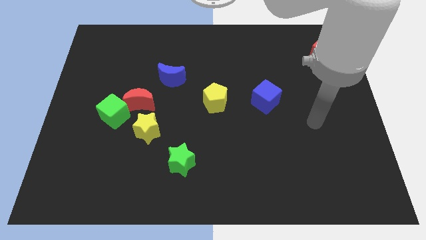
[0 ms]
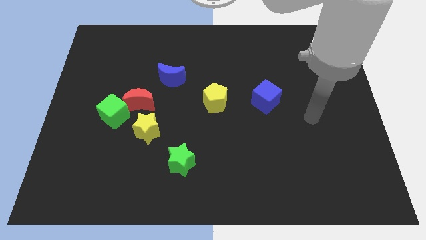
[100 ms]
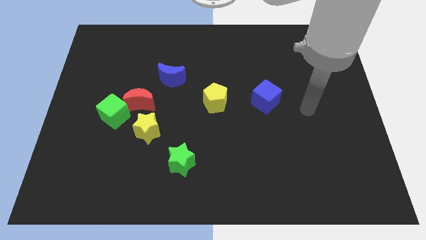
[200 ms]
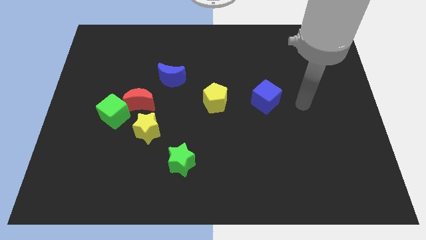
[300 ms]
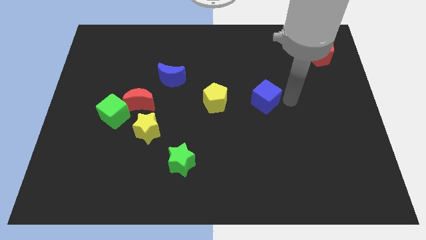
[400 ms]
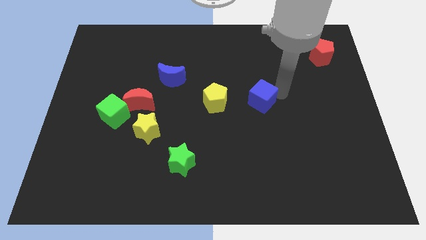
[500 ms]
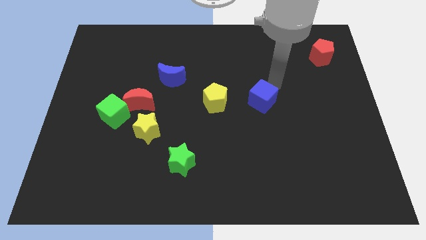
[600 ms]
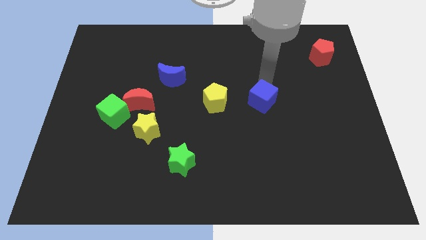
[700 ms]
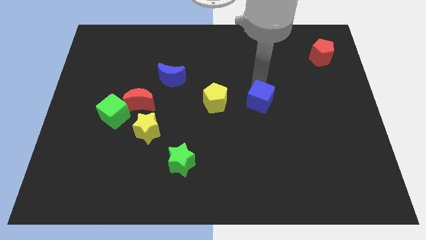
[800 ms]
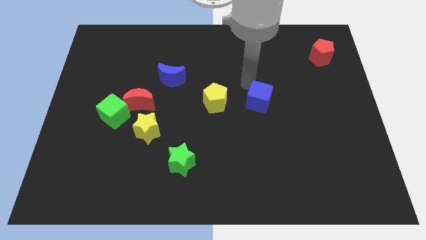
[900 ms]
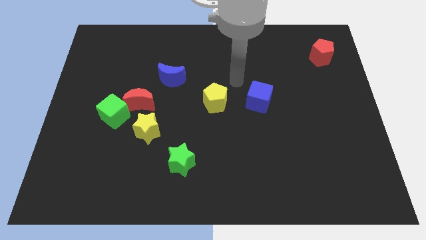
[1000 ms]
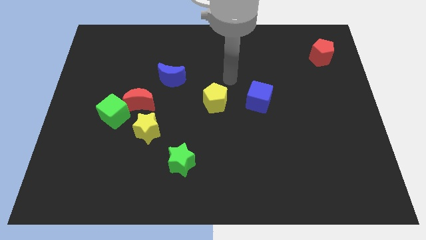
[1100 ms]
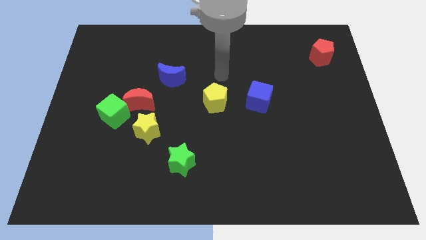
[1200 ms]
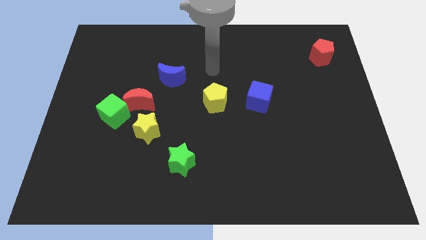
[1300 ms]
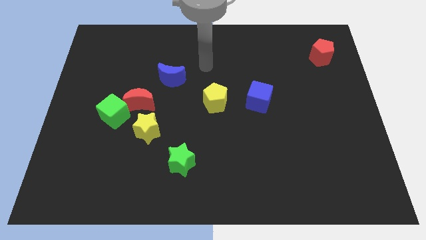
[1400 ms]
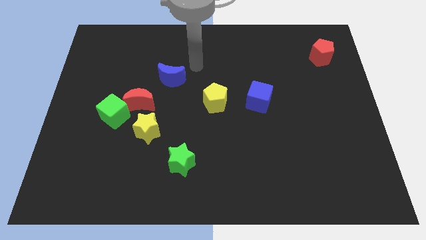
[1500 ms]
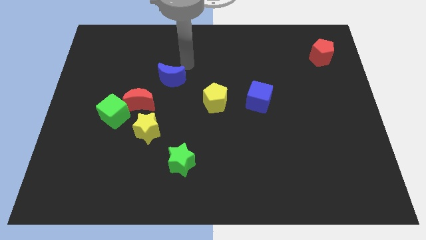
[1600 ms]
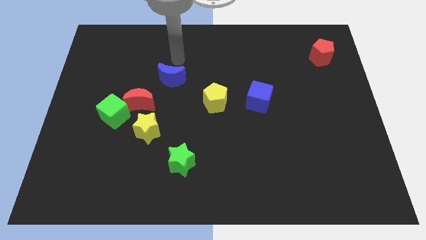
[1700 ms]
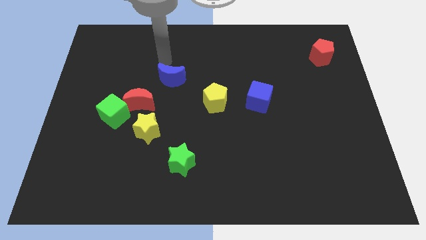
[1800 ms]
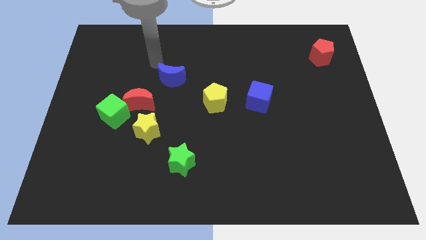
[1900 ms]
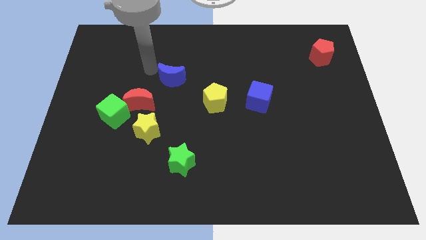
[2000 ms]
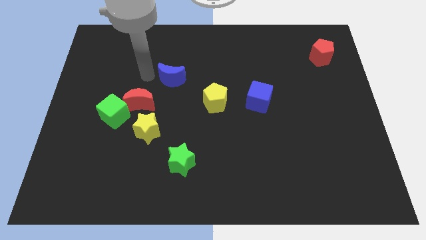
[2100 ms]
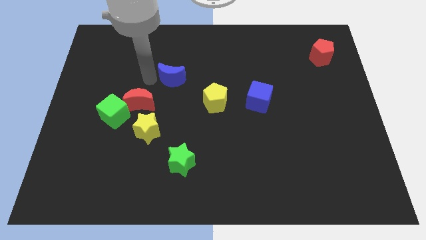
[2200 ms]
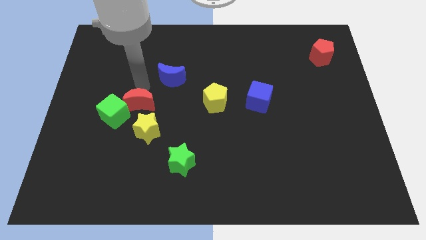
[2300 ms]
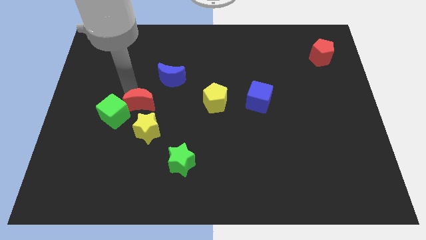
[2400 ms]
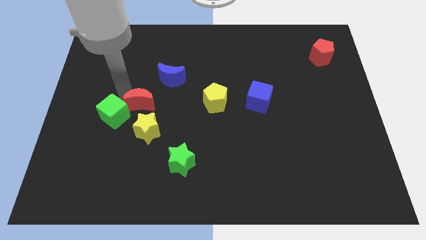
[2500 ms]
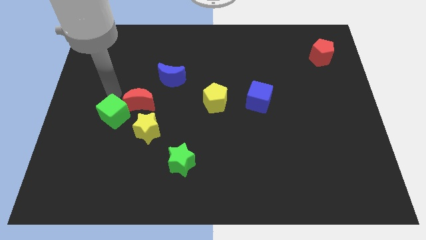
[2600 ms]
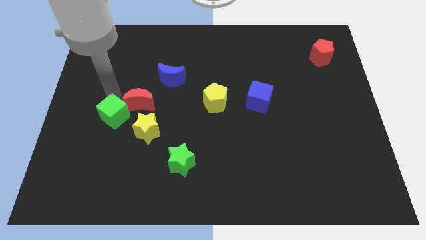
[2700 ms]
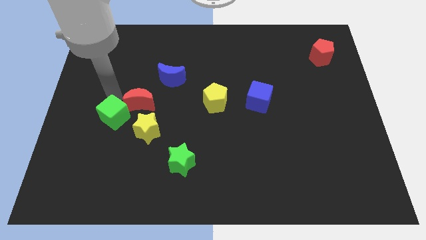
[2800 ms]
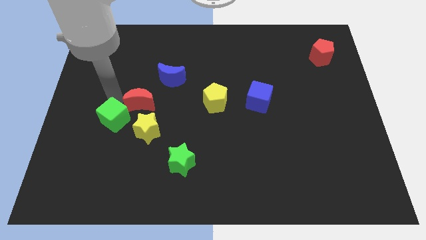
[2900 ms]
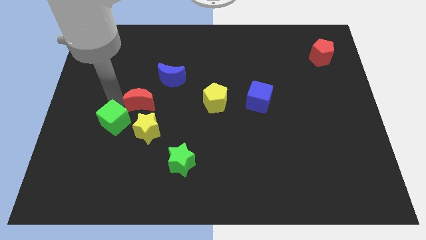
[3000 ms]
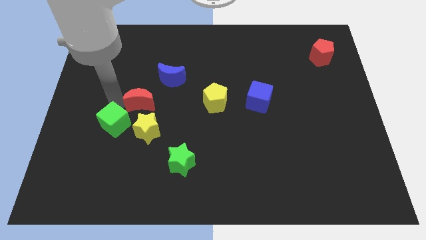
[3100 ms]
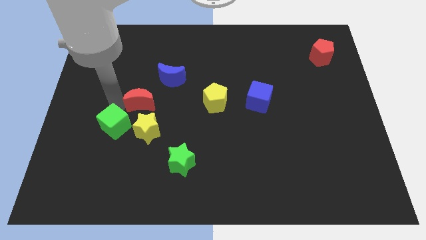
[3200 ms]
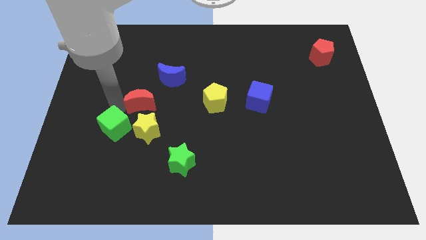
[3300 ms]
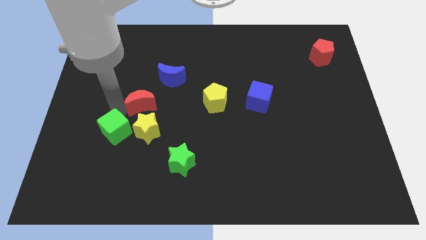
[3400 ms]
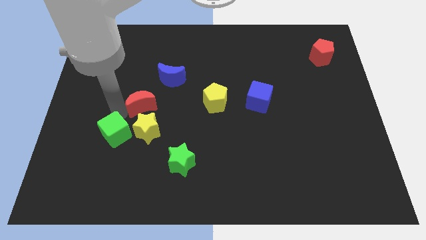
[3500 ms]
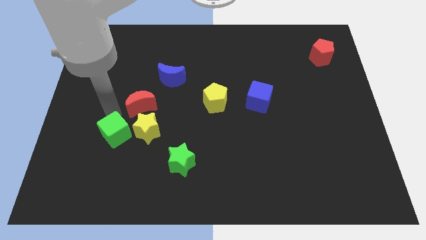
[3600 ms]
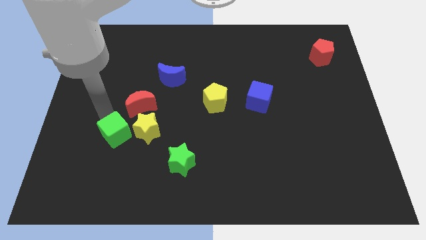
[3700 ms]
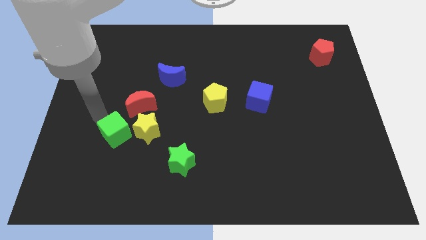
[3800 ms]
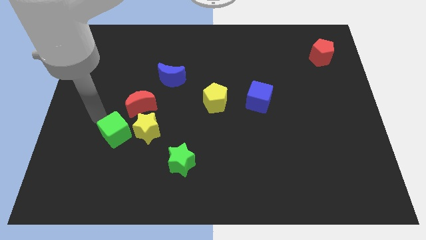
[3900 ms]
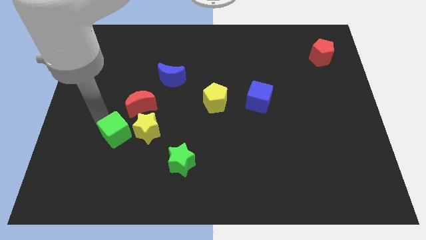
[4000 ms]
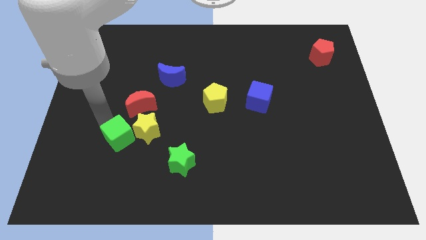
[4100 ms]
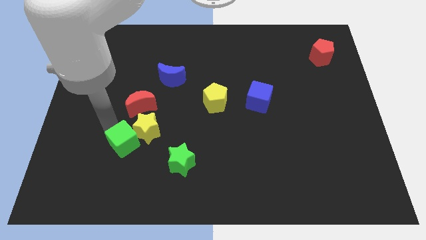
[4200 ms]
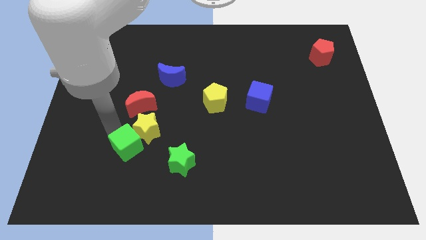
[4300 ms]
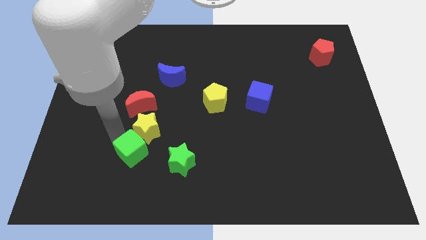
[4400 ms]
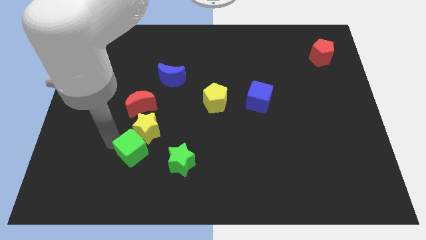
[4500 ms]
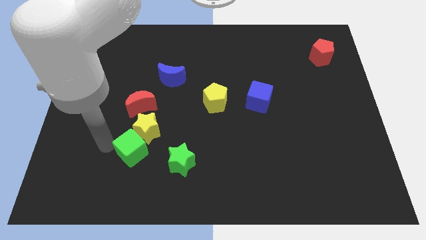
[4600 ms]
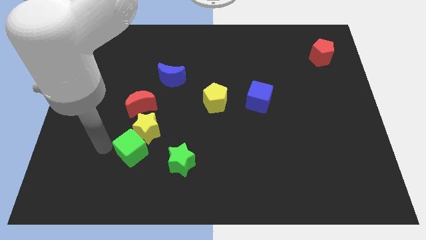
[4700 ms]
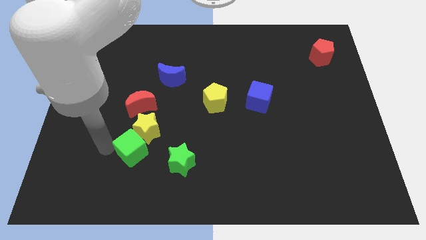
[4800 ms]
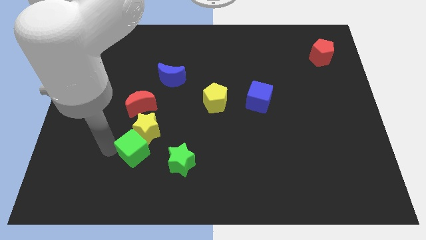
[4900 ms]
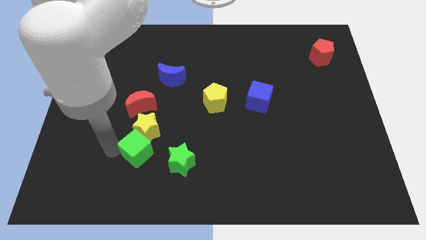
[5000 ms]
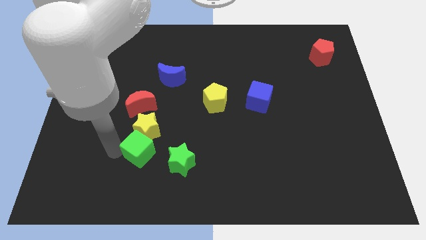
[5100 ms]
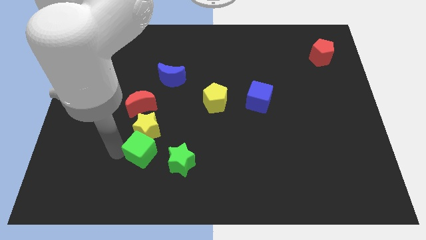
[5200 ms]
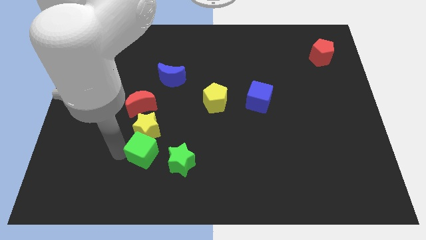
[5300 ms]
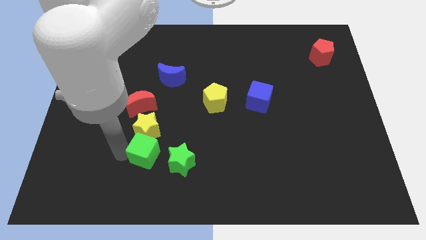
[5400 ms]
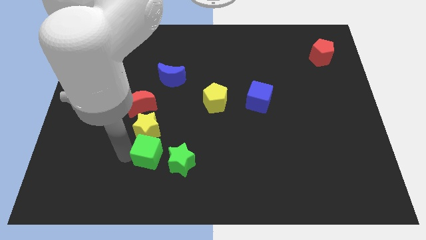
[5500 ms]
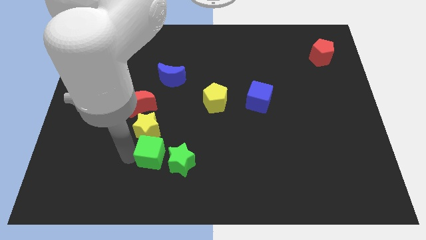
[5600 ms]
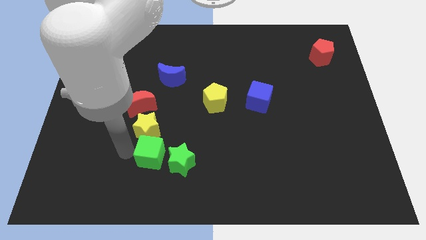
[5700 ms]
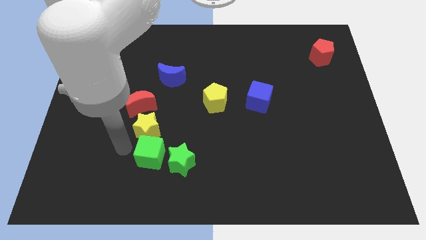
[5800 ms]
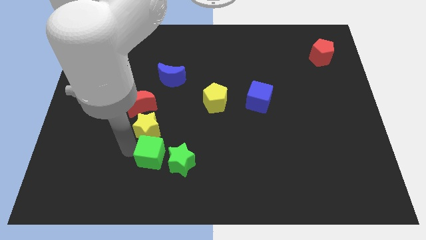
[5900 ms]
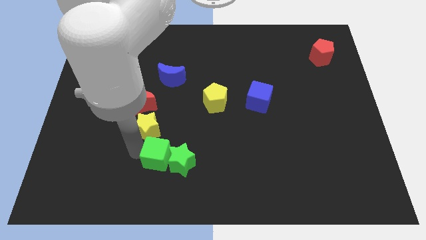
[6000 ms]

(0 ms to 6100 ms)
move the green cube close to the green star
